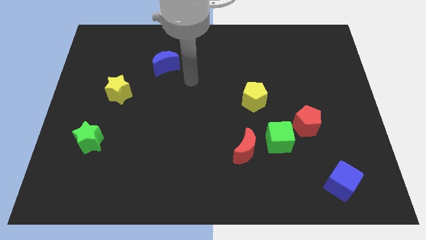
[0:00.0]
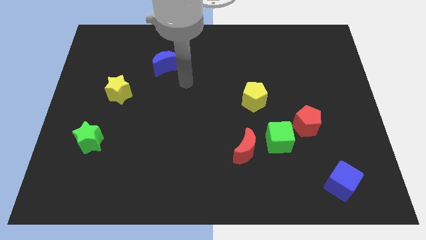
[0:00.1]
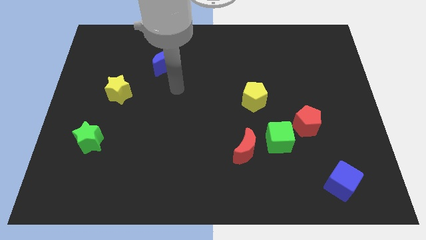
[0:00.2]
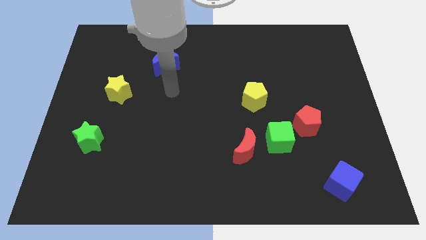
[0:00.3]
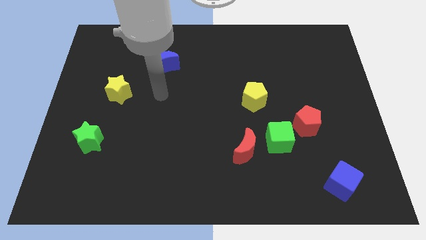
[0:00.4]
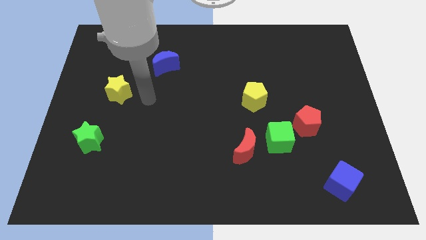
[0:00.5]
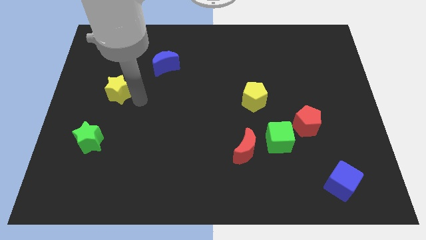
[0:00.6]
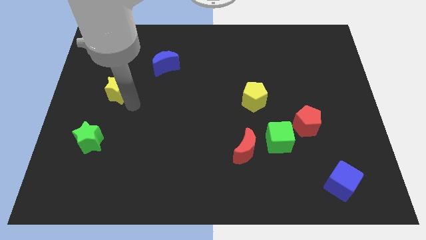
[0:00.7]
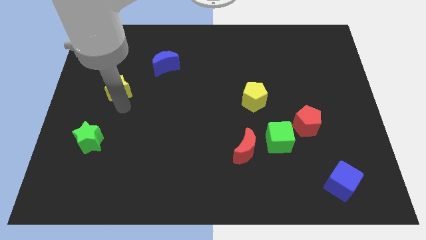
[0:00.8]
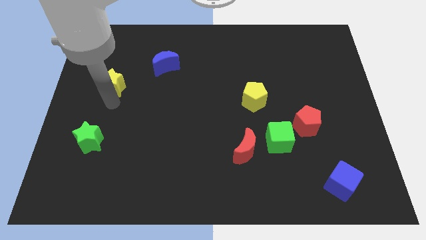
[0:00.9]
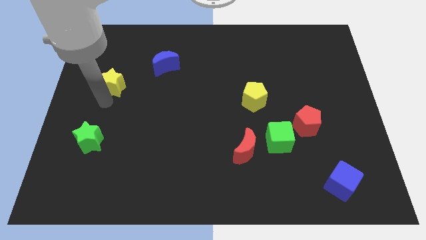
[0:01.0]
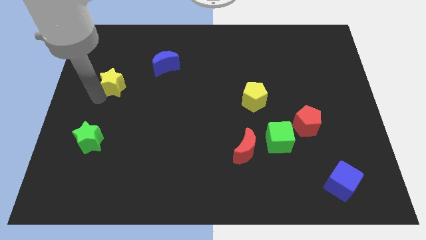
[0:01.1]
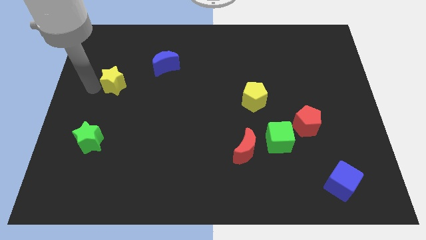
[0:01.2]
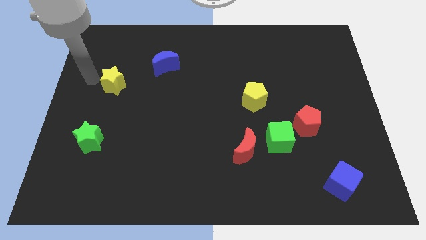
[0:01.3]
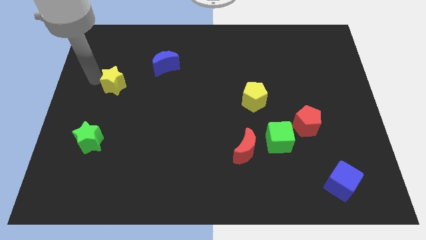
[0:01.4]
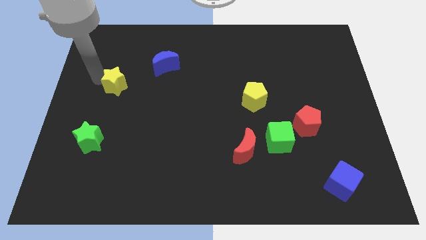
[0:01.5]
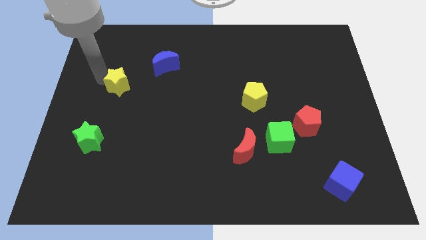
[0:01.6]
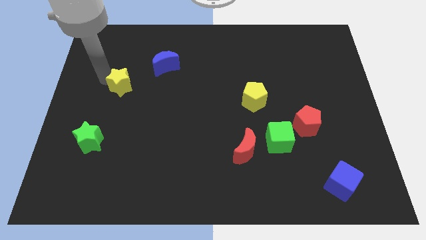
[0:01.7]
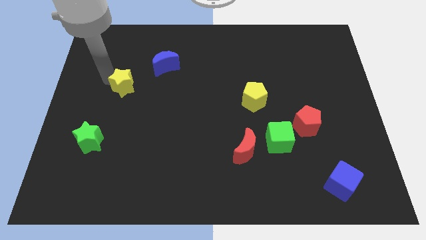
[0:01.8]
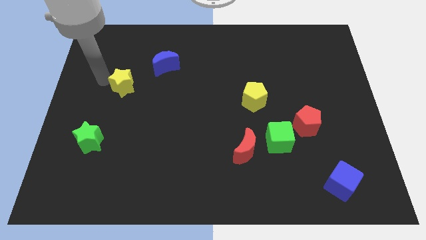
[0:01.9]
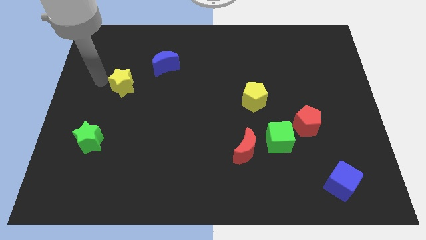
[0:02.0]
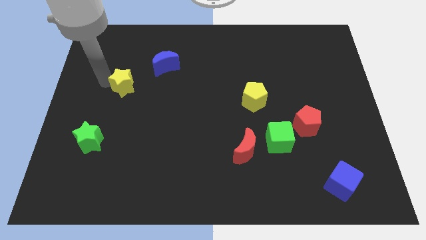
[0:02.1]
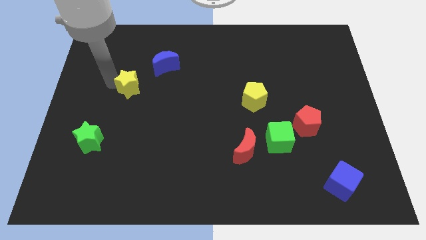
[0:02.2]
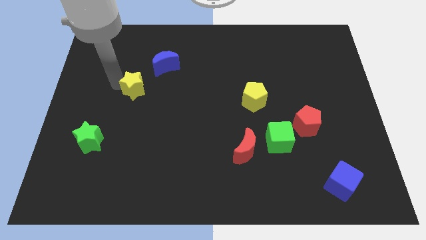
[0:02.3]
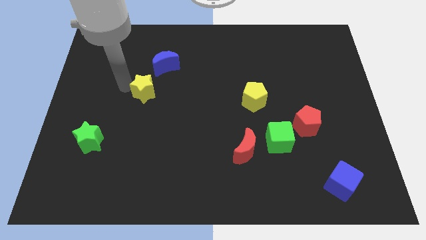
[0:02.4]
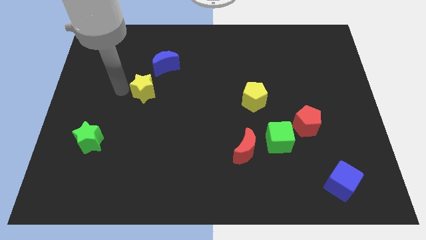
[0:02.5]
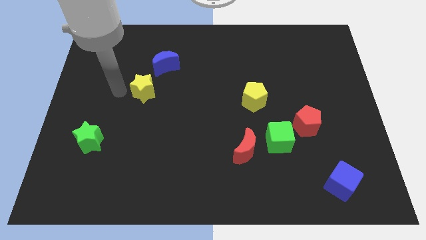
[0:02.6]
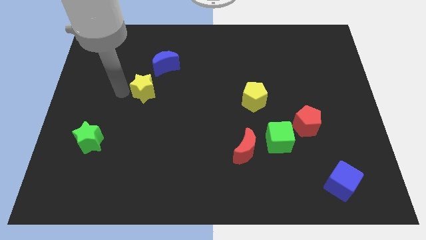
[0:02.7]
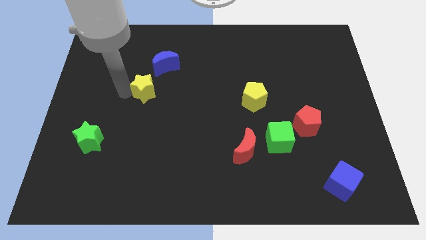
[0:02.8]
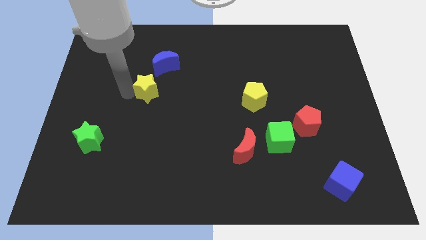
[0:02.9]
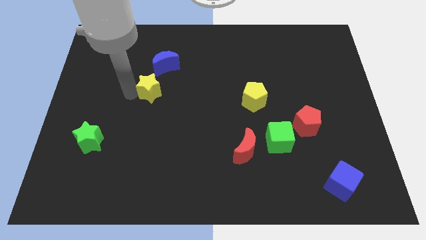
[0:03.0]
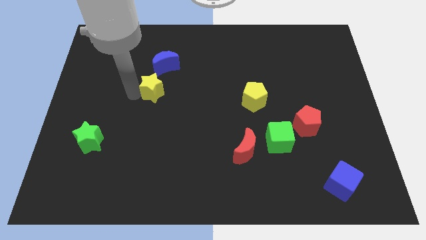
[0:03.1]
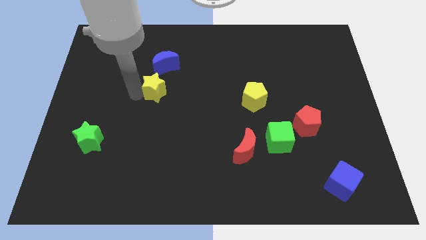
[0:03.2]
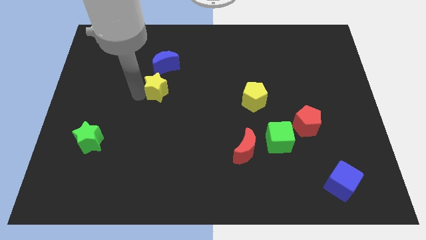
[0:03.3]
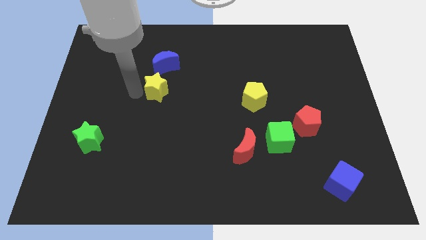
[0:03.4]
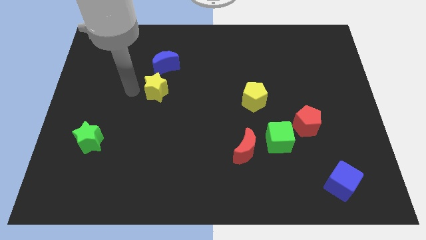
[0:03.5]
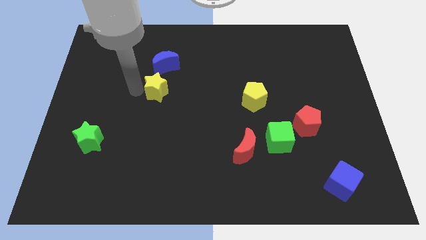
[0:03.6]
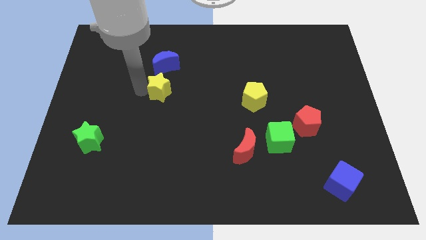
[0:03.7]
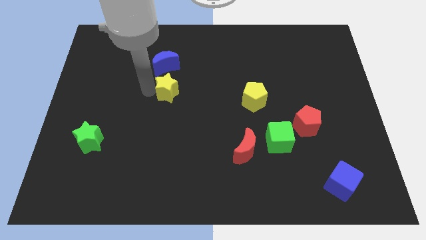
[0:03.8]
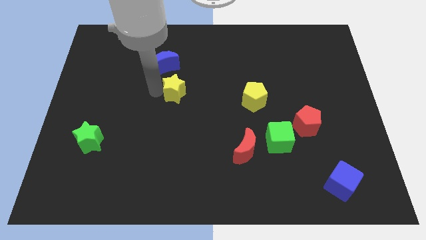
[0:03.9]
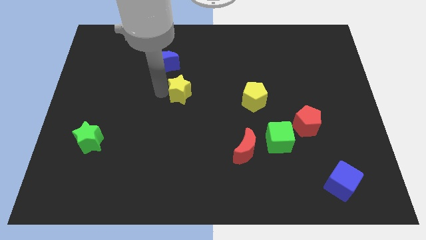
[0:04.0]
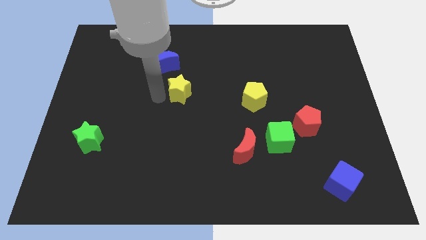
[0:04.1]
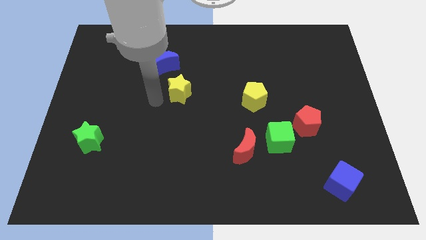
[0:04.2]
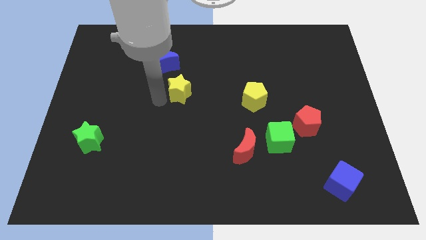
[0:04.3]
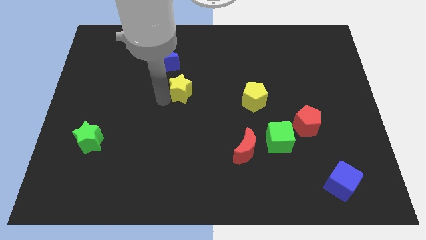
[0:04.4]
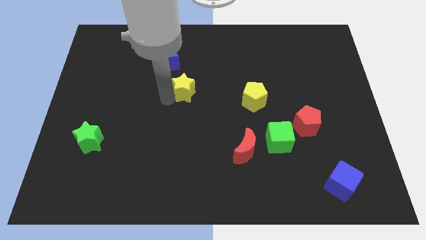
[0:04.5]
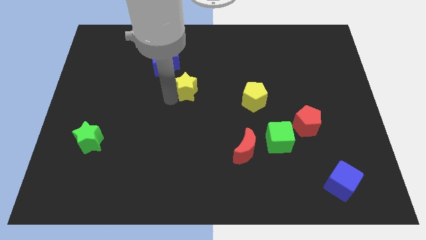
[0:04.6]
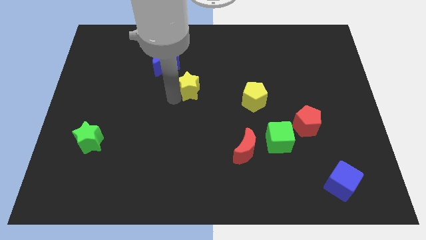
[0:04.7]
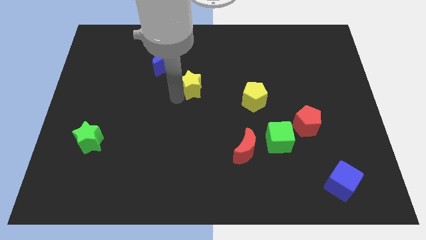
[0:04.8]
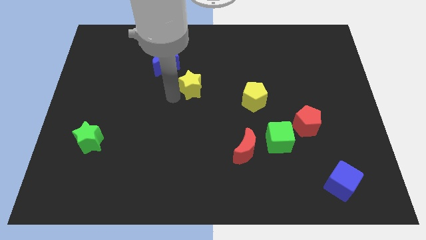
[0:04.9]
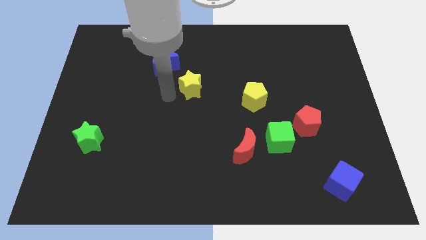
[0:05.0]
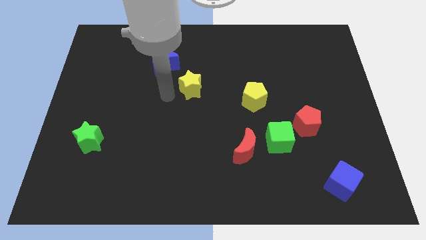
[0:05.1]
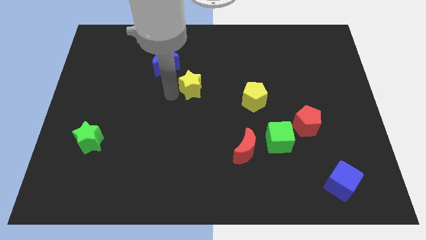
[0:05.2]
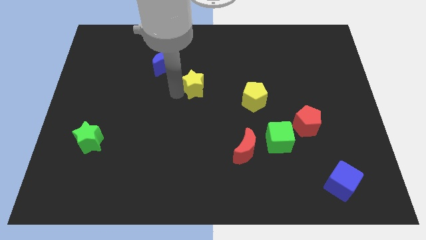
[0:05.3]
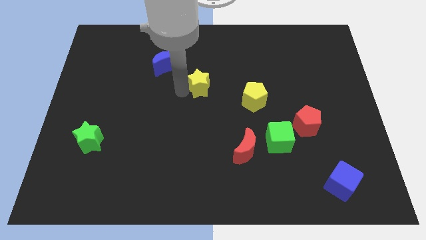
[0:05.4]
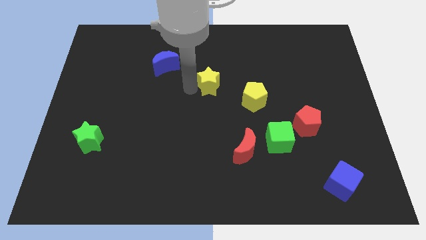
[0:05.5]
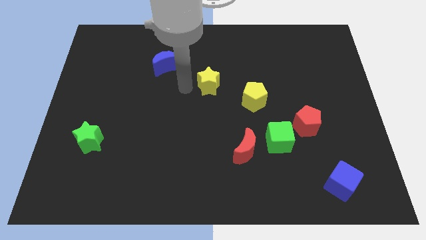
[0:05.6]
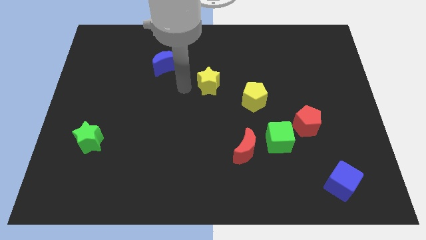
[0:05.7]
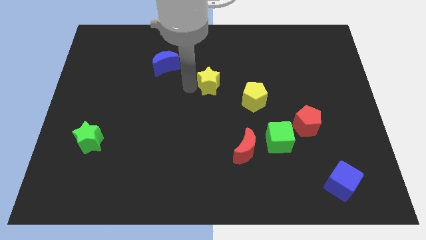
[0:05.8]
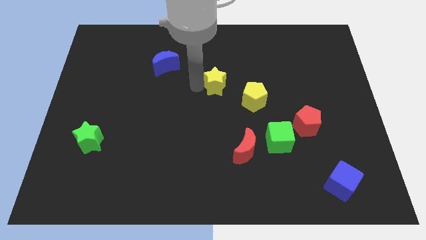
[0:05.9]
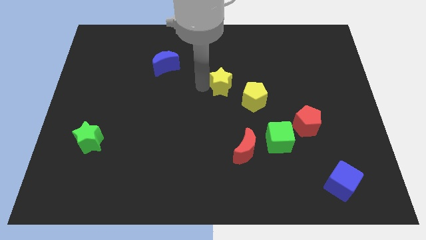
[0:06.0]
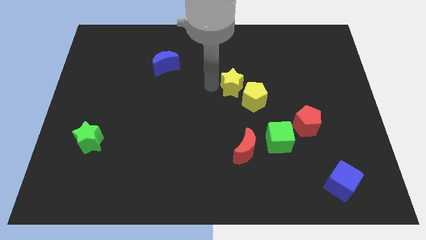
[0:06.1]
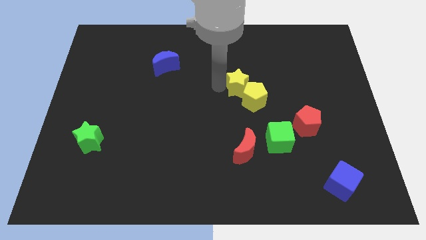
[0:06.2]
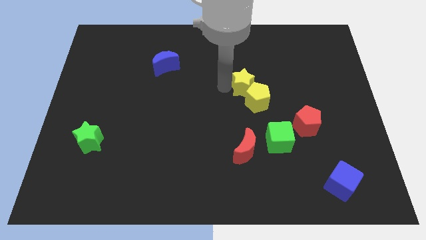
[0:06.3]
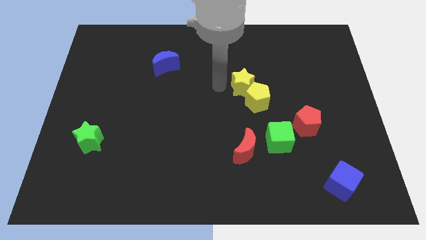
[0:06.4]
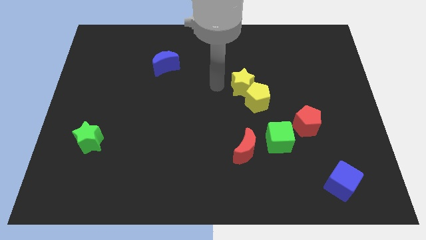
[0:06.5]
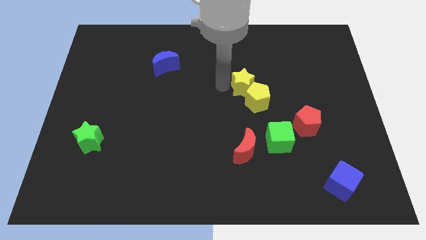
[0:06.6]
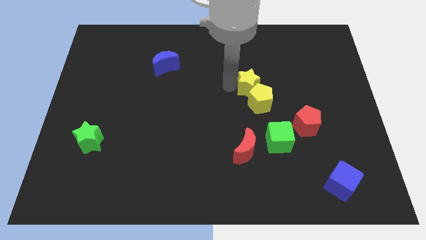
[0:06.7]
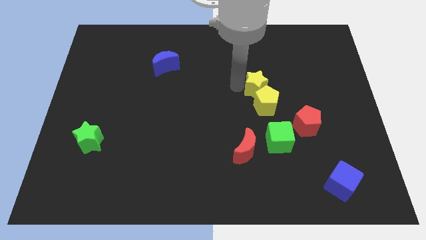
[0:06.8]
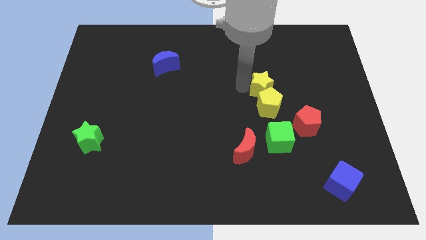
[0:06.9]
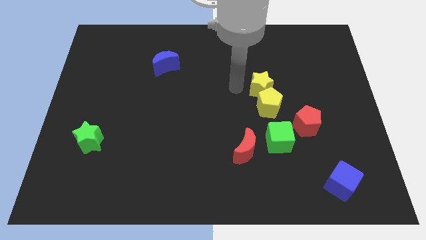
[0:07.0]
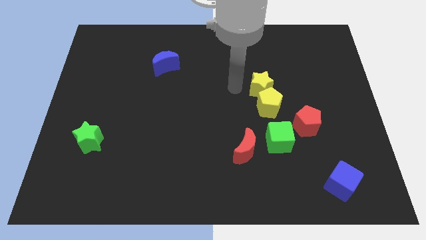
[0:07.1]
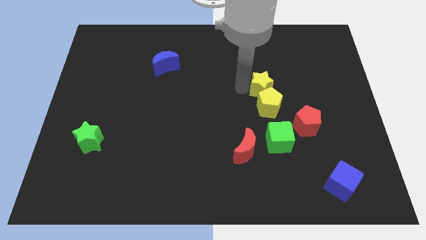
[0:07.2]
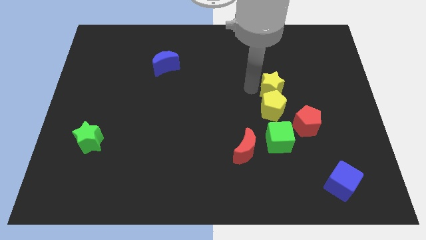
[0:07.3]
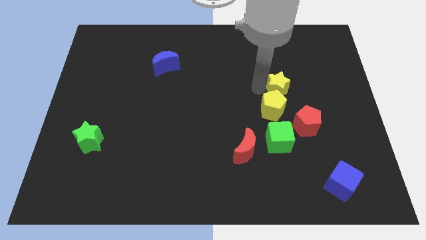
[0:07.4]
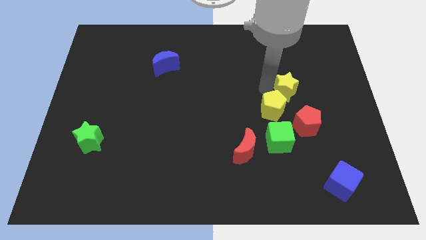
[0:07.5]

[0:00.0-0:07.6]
push the yellow star above the red pentagon

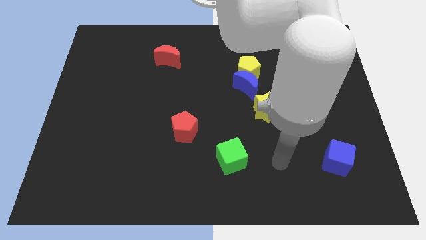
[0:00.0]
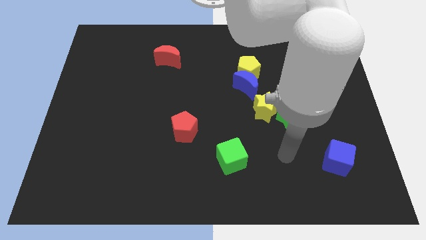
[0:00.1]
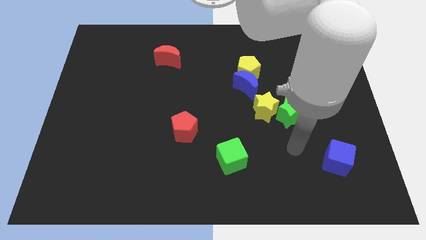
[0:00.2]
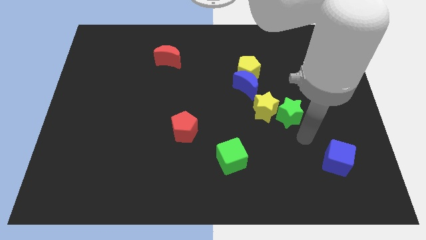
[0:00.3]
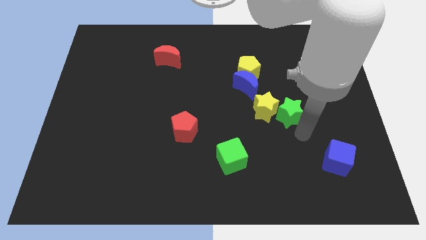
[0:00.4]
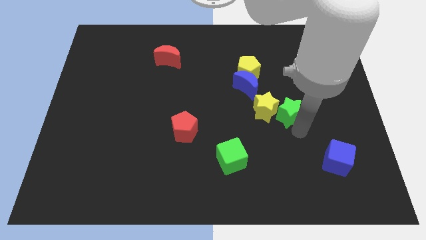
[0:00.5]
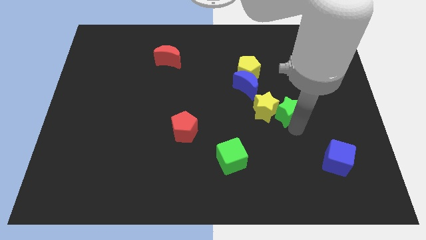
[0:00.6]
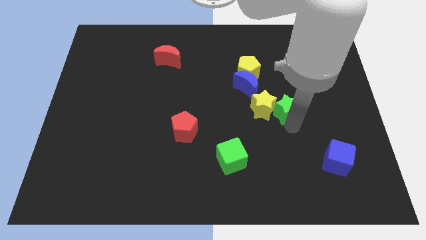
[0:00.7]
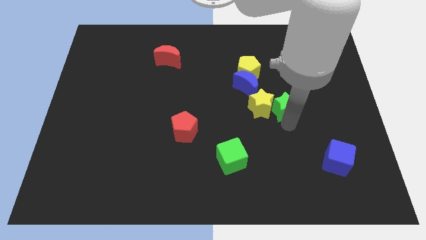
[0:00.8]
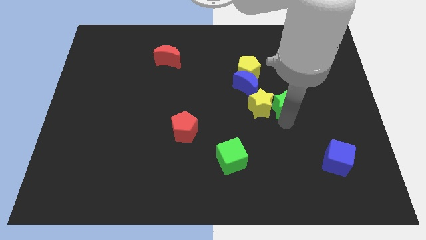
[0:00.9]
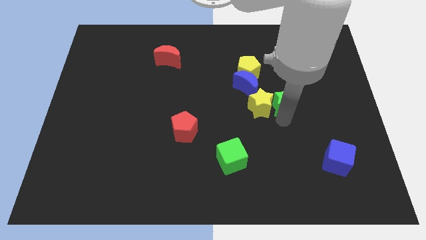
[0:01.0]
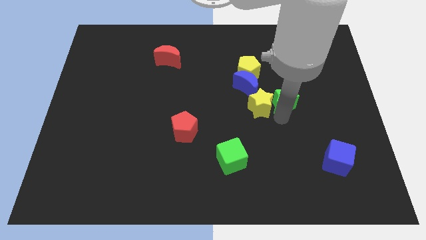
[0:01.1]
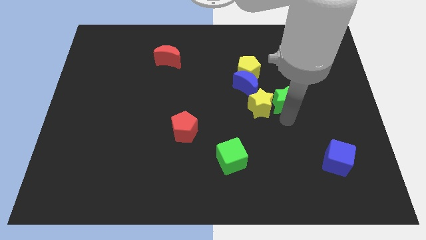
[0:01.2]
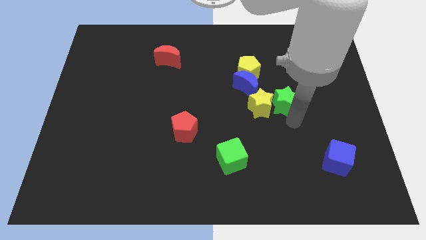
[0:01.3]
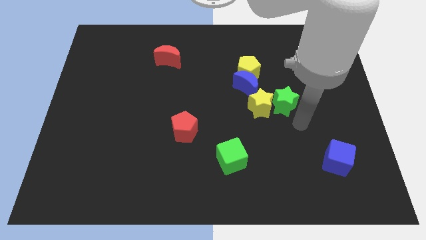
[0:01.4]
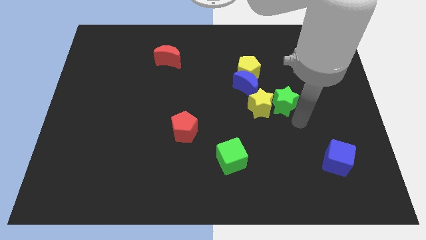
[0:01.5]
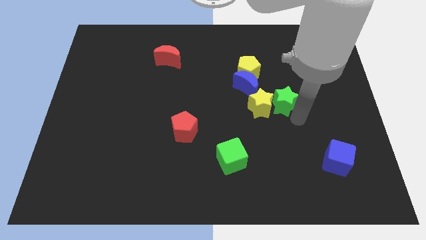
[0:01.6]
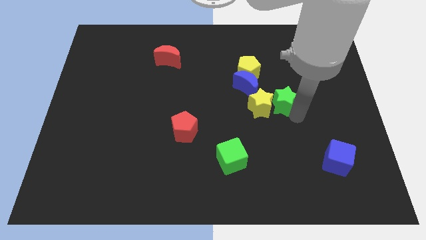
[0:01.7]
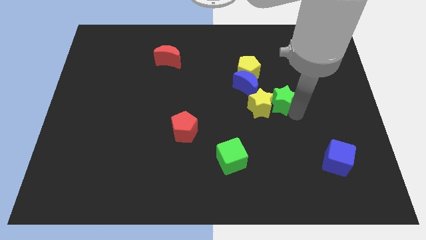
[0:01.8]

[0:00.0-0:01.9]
slide the green star diagonally down and to the right of the yellow pentagon
